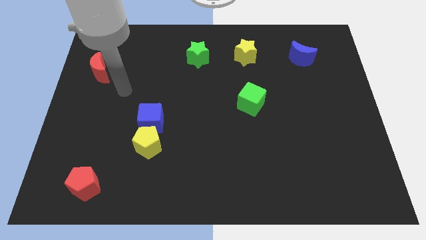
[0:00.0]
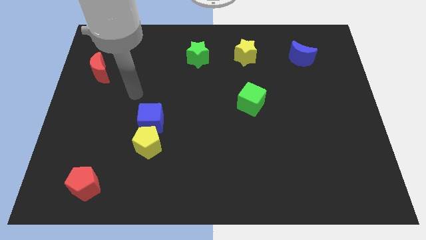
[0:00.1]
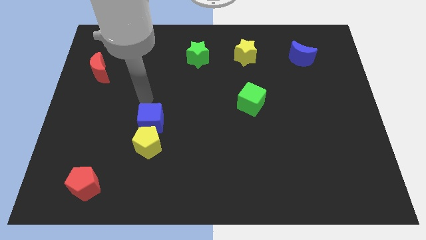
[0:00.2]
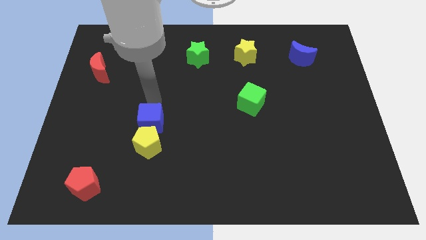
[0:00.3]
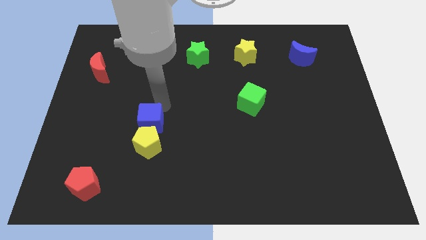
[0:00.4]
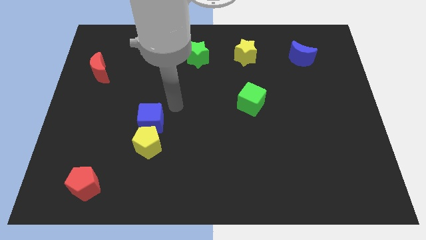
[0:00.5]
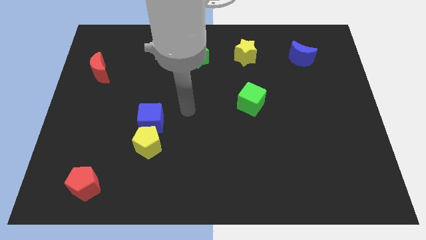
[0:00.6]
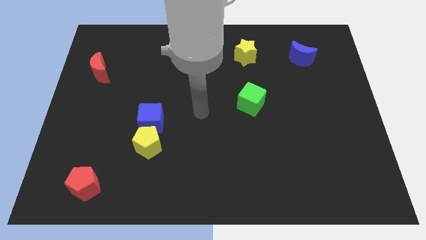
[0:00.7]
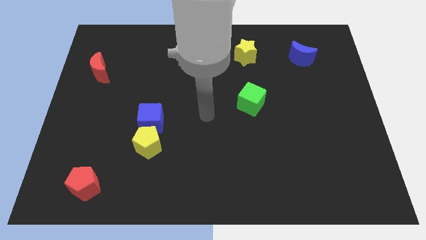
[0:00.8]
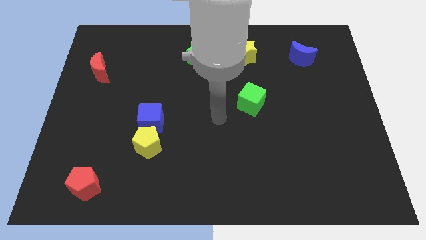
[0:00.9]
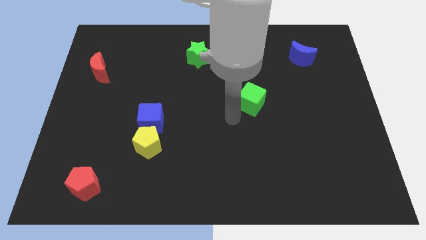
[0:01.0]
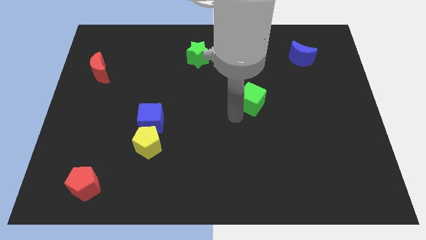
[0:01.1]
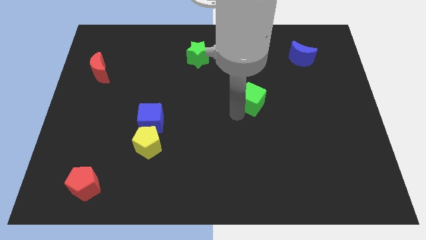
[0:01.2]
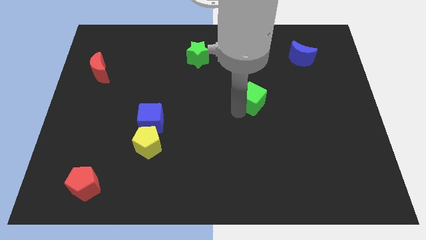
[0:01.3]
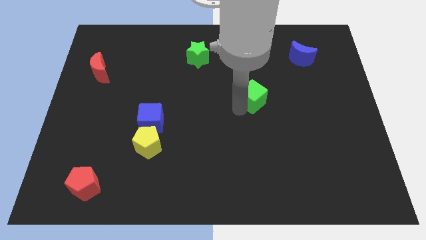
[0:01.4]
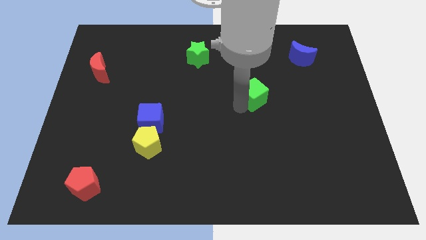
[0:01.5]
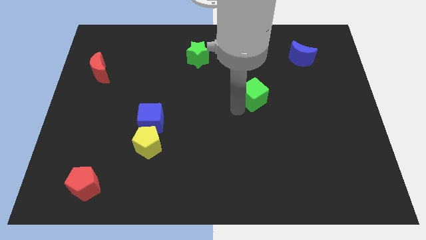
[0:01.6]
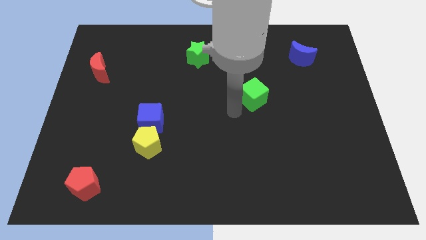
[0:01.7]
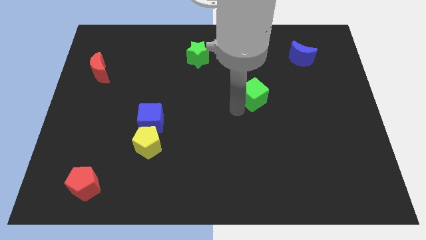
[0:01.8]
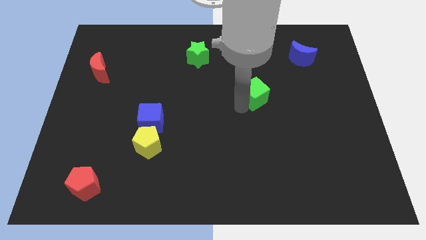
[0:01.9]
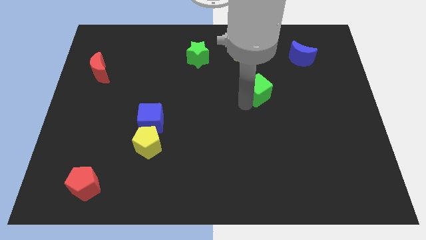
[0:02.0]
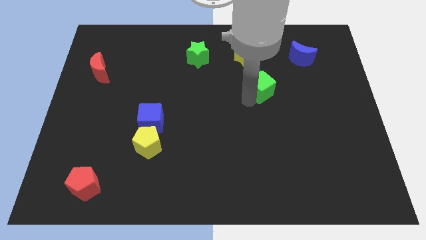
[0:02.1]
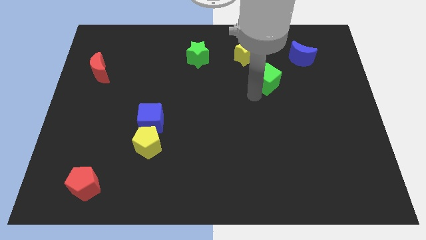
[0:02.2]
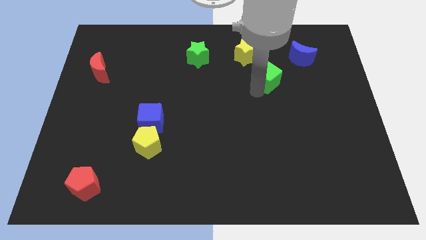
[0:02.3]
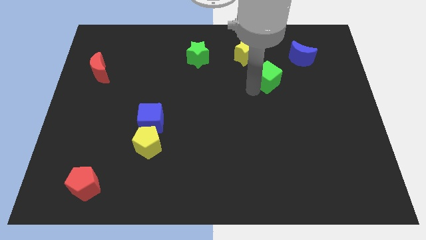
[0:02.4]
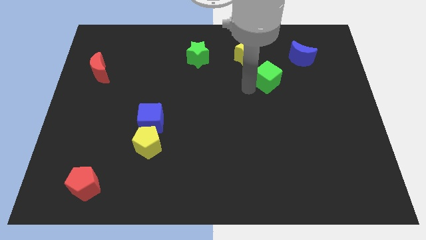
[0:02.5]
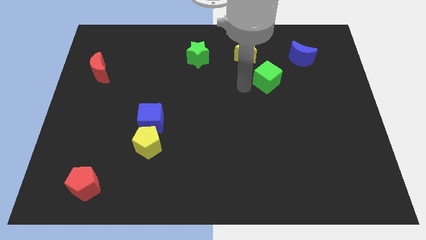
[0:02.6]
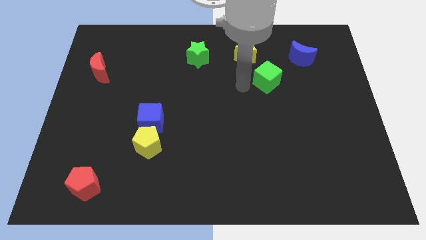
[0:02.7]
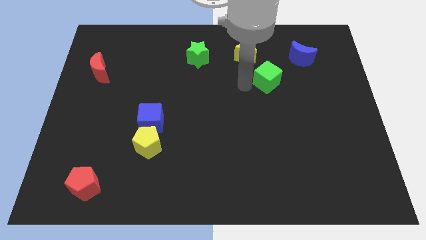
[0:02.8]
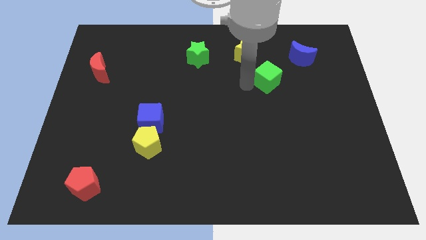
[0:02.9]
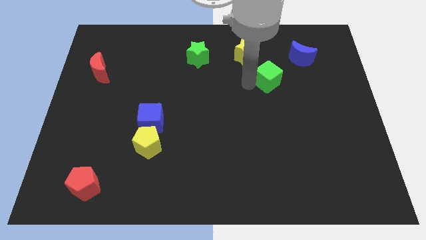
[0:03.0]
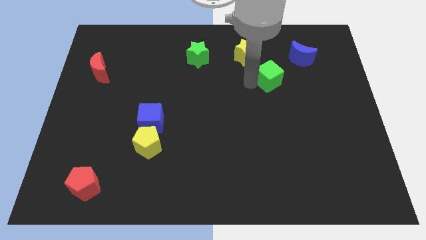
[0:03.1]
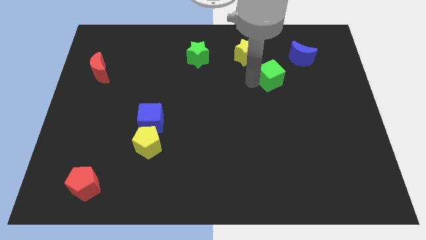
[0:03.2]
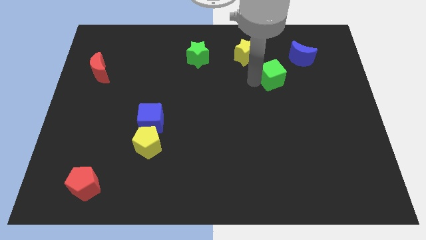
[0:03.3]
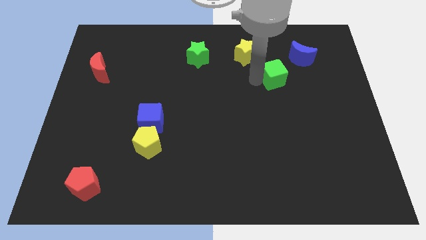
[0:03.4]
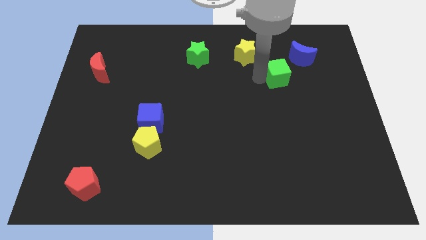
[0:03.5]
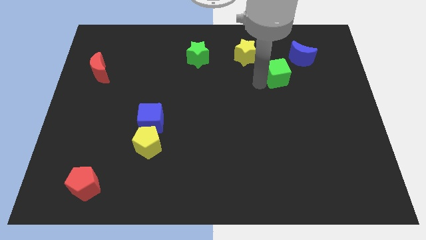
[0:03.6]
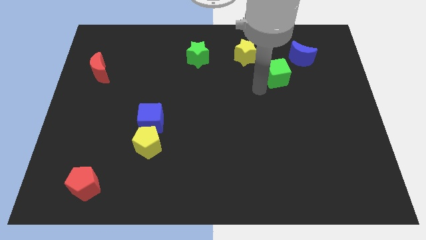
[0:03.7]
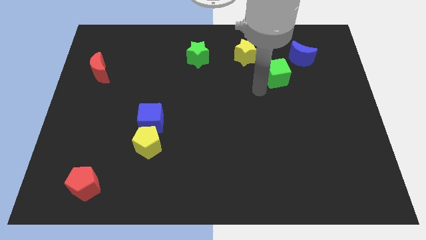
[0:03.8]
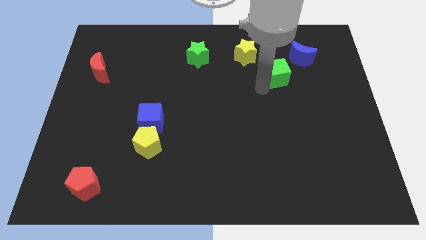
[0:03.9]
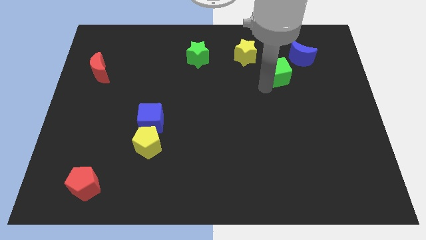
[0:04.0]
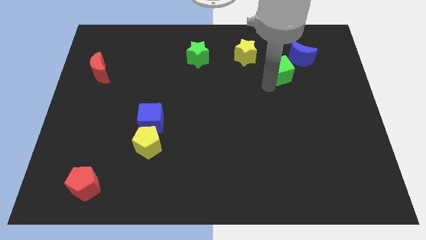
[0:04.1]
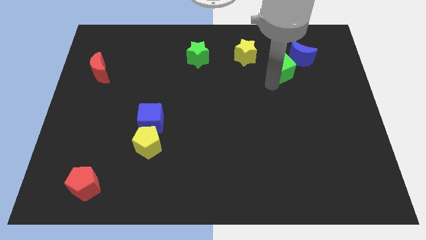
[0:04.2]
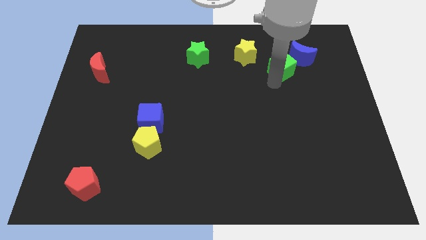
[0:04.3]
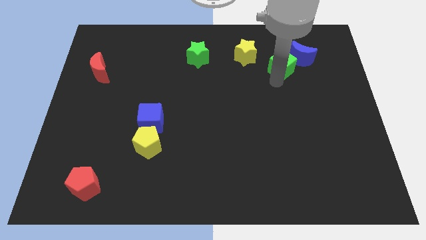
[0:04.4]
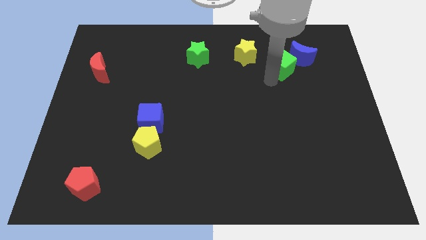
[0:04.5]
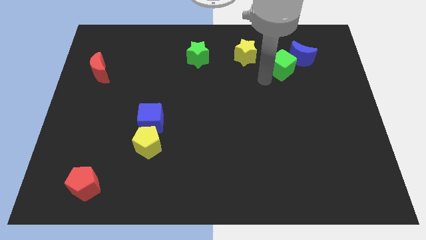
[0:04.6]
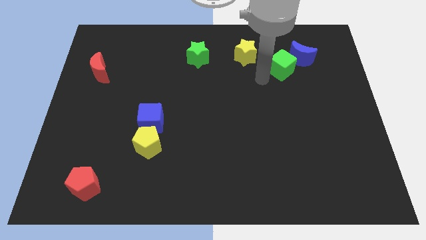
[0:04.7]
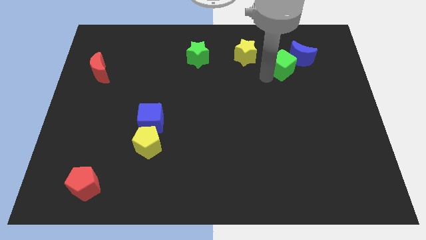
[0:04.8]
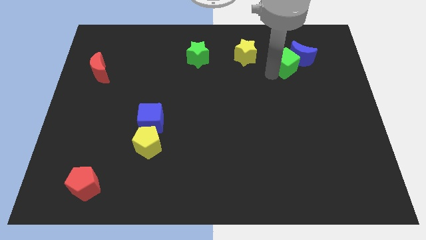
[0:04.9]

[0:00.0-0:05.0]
put the green cube next to the blue moon

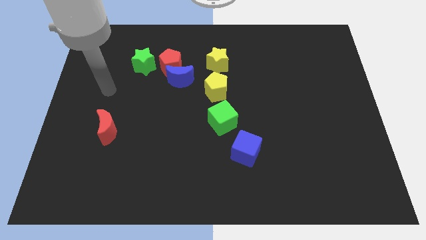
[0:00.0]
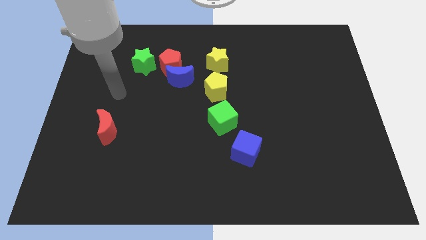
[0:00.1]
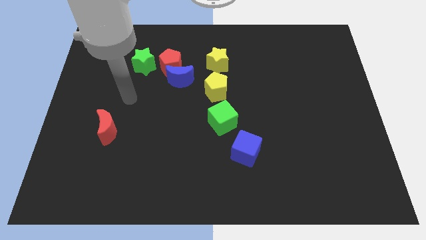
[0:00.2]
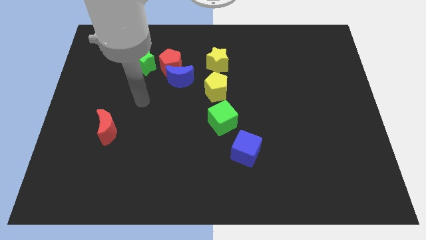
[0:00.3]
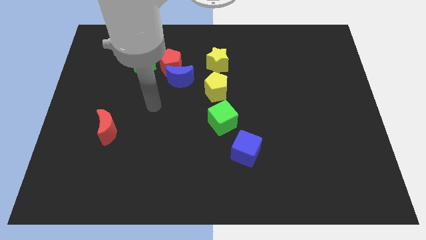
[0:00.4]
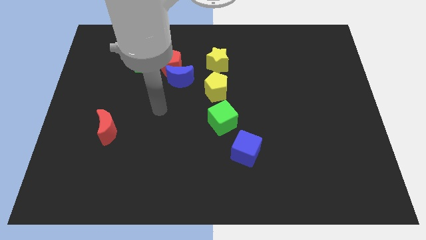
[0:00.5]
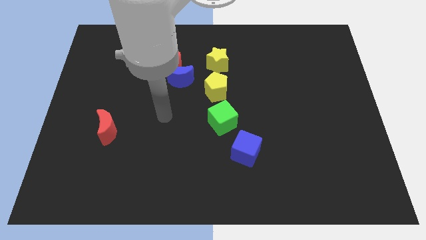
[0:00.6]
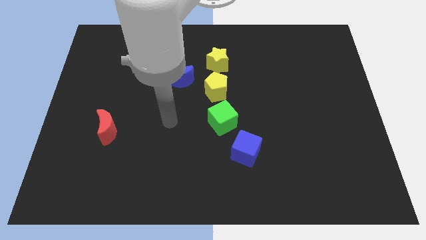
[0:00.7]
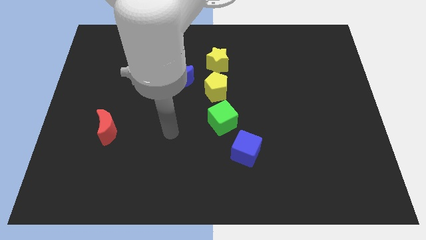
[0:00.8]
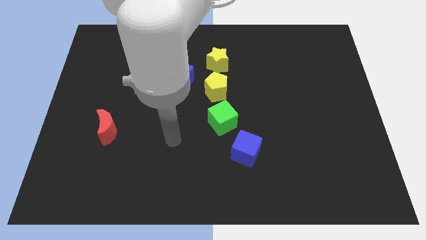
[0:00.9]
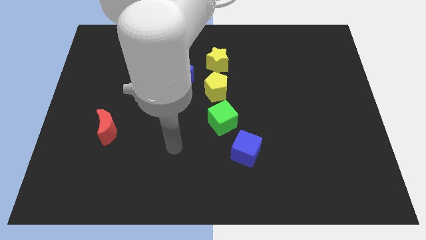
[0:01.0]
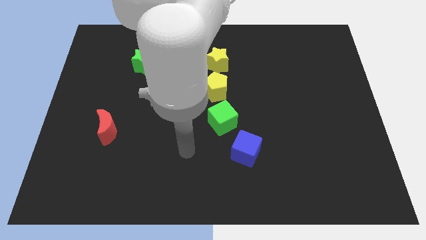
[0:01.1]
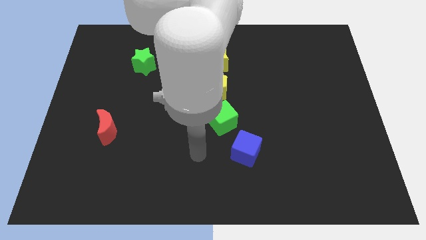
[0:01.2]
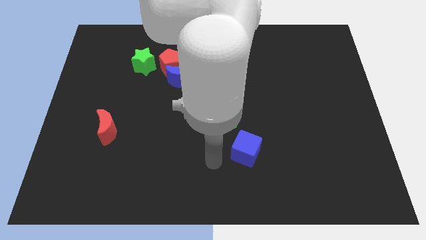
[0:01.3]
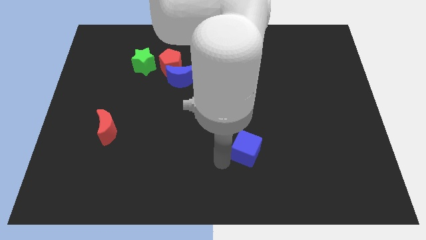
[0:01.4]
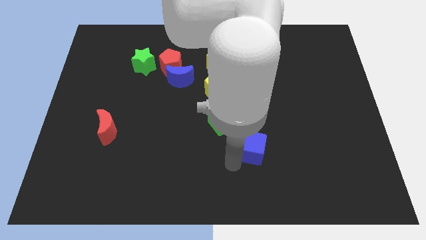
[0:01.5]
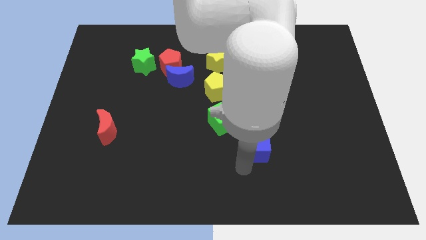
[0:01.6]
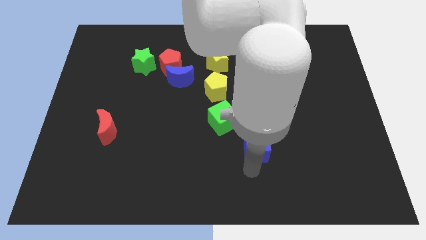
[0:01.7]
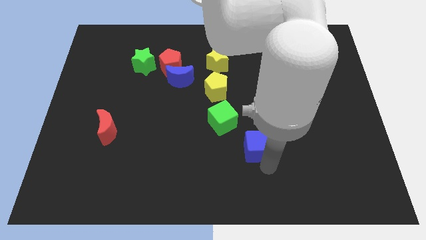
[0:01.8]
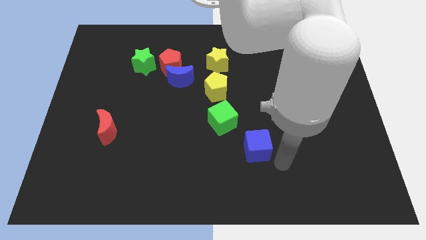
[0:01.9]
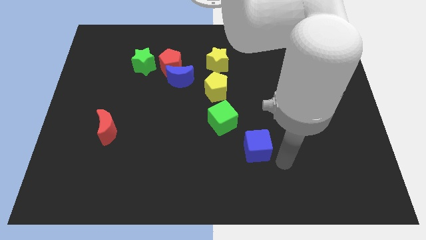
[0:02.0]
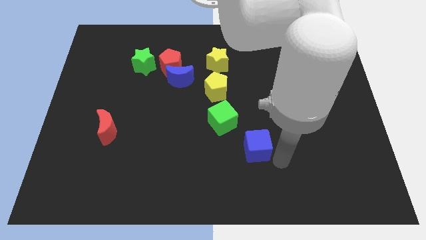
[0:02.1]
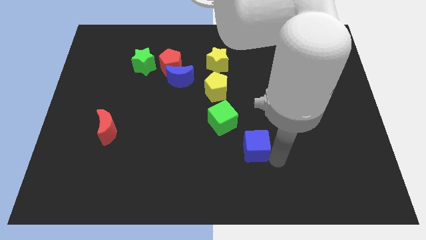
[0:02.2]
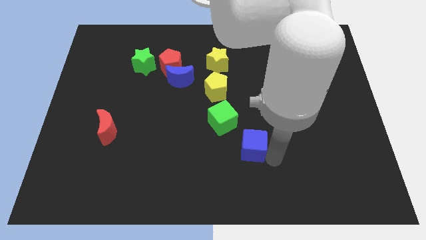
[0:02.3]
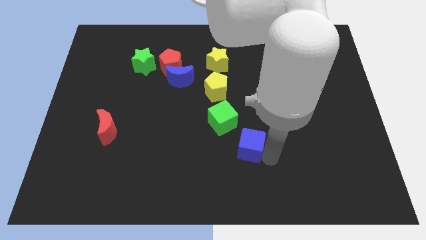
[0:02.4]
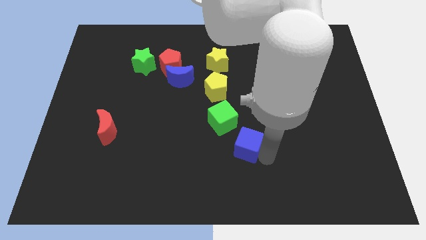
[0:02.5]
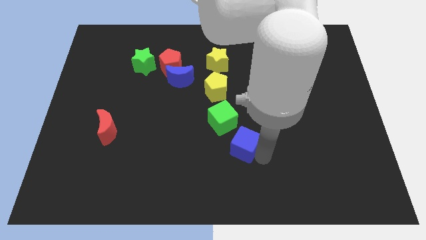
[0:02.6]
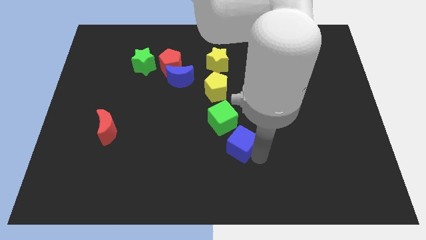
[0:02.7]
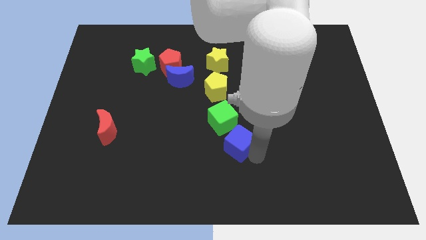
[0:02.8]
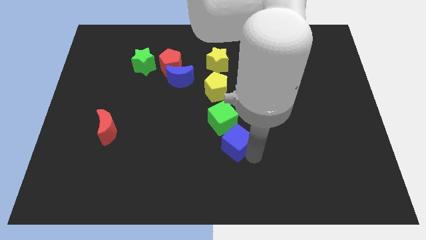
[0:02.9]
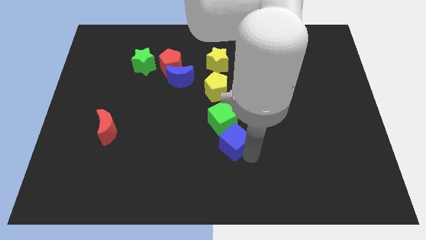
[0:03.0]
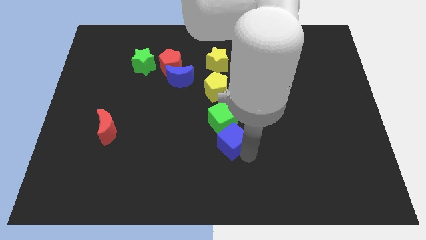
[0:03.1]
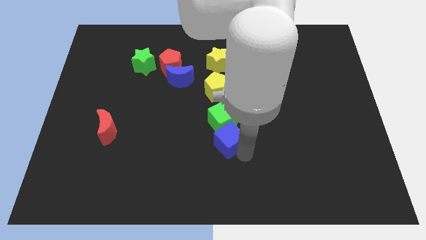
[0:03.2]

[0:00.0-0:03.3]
push the blue cube towards the green cube
